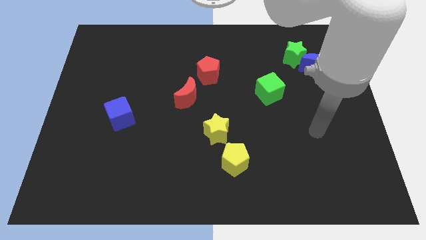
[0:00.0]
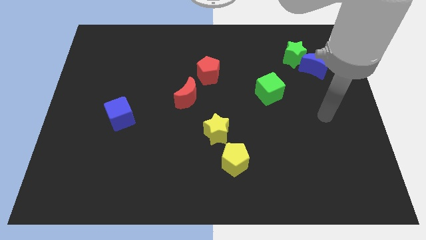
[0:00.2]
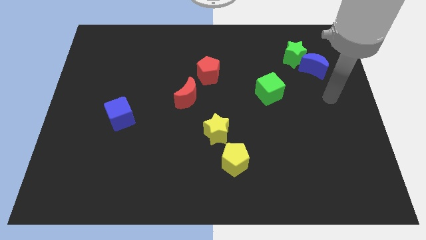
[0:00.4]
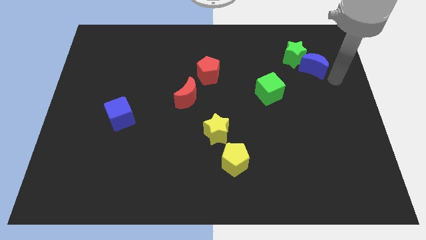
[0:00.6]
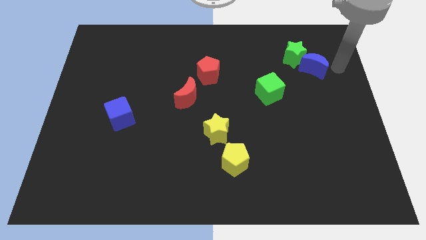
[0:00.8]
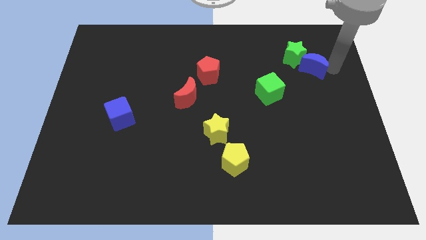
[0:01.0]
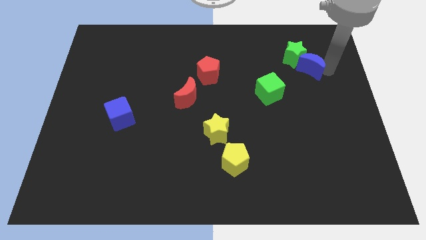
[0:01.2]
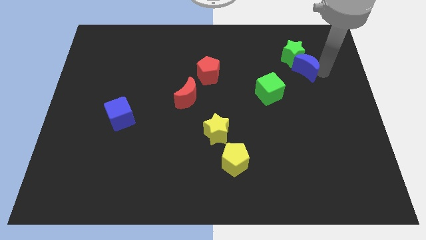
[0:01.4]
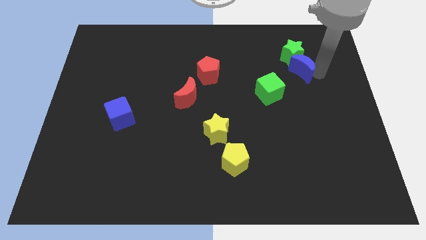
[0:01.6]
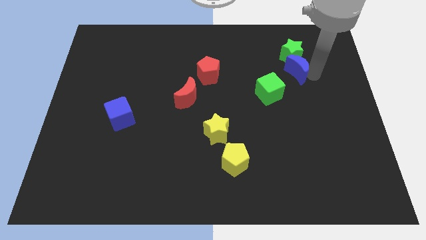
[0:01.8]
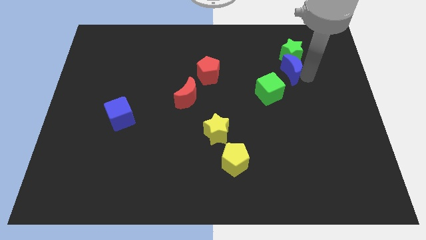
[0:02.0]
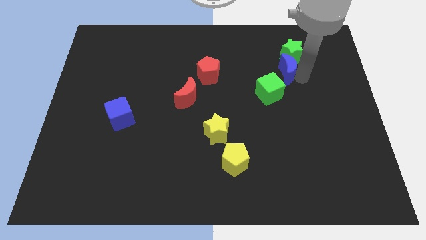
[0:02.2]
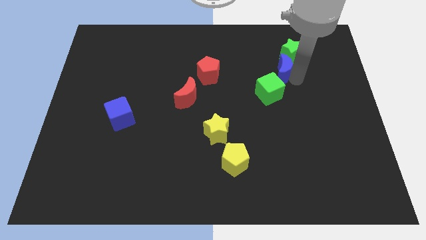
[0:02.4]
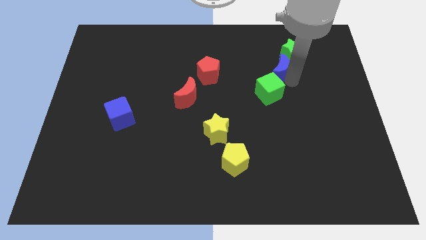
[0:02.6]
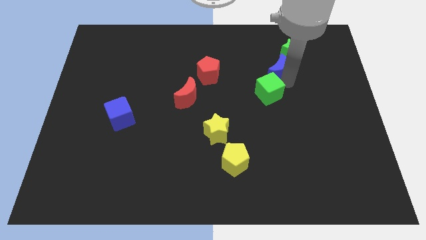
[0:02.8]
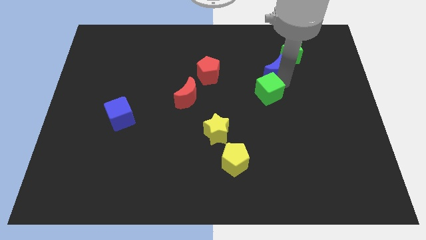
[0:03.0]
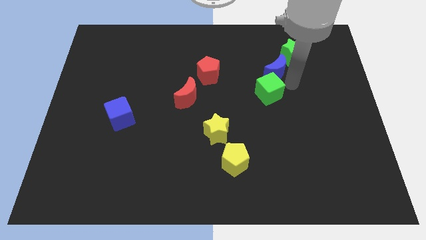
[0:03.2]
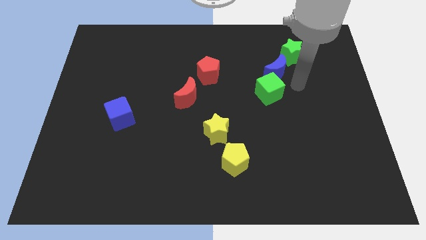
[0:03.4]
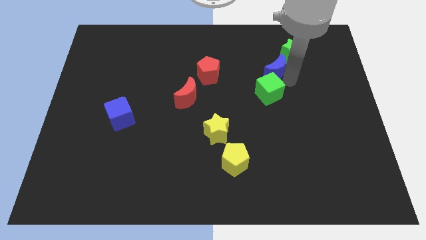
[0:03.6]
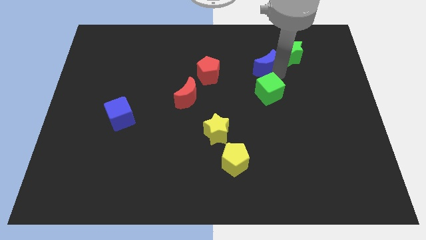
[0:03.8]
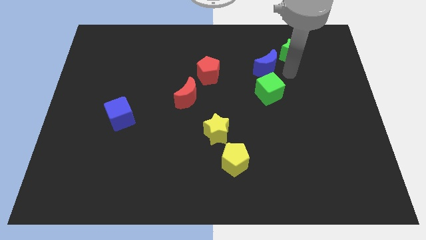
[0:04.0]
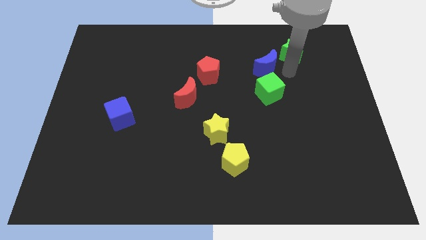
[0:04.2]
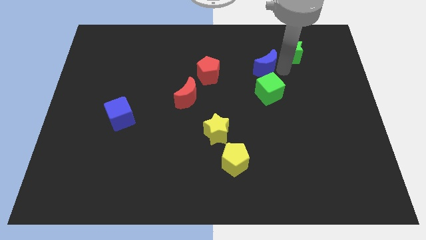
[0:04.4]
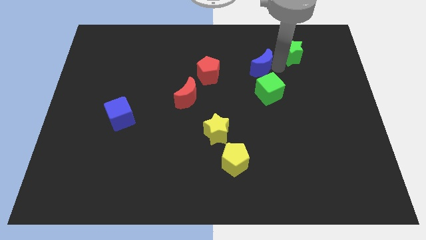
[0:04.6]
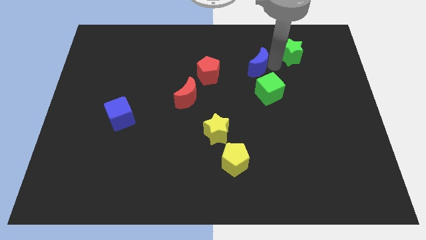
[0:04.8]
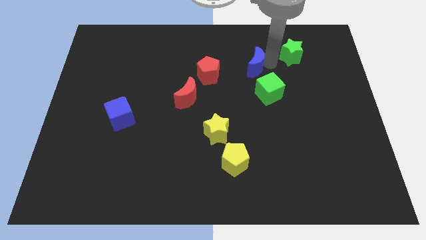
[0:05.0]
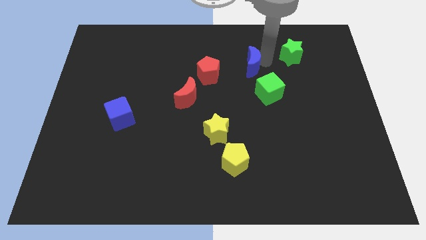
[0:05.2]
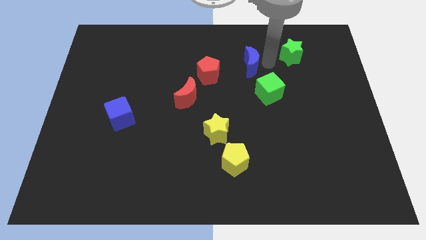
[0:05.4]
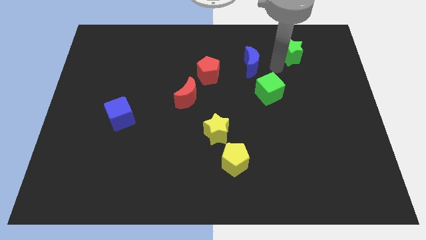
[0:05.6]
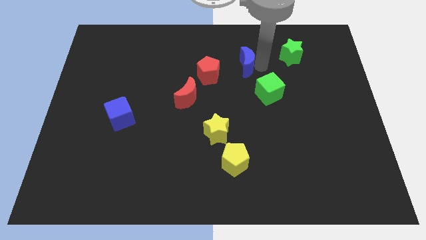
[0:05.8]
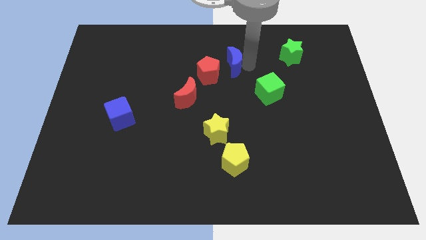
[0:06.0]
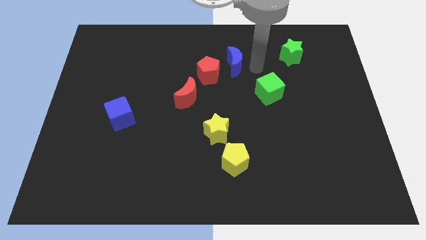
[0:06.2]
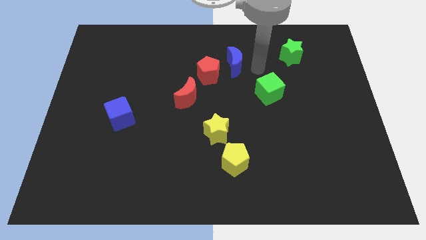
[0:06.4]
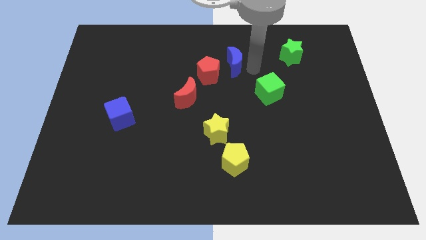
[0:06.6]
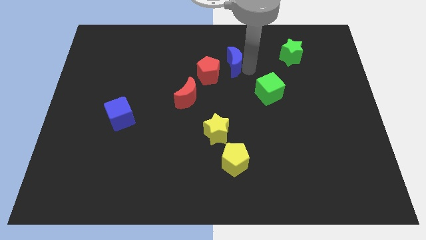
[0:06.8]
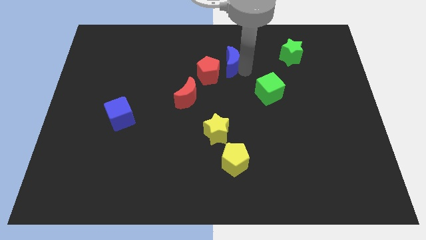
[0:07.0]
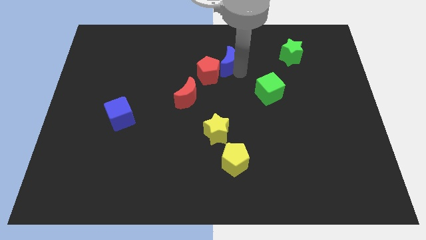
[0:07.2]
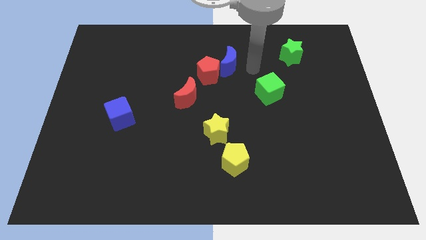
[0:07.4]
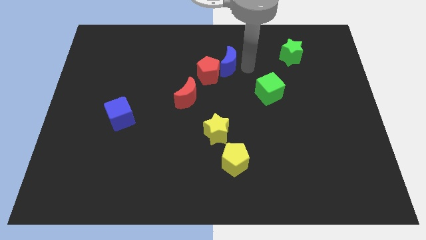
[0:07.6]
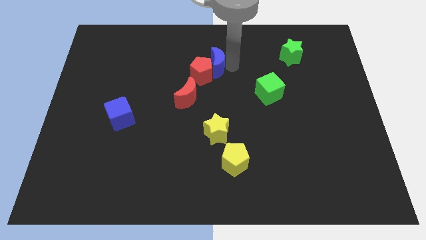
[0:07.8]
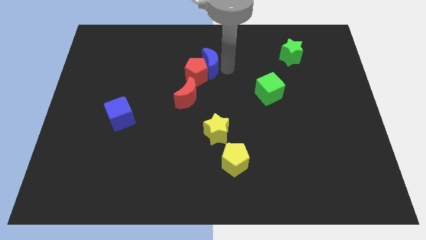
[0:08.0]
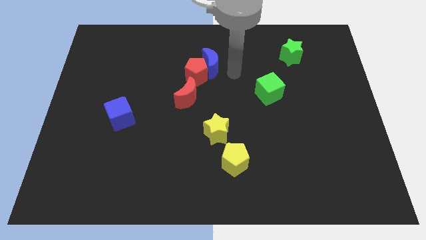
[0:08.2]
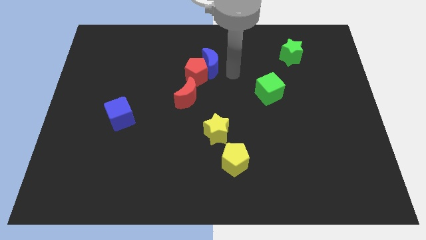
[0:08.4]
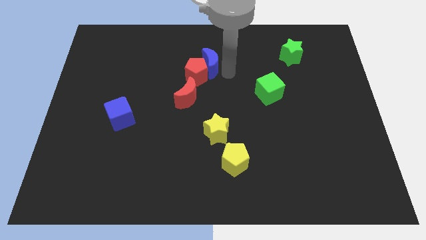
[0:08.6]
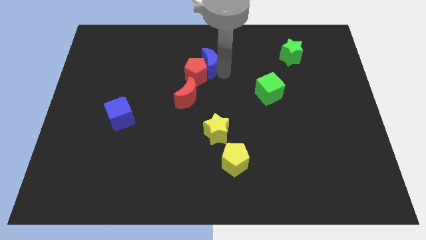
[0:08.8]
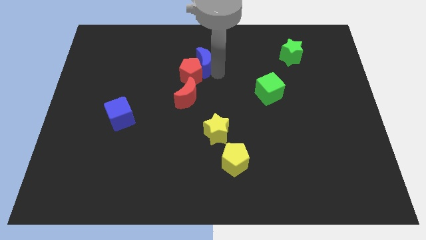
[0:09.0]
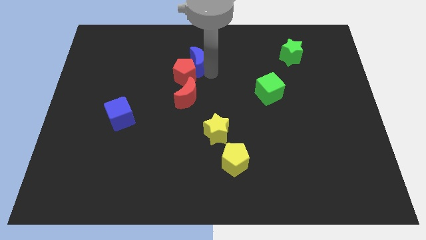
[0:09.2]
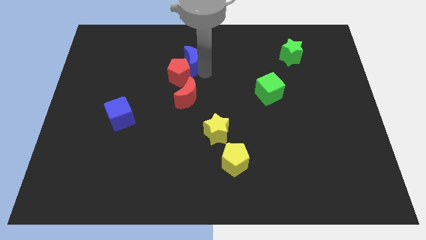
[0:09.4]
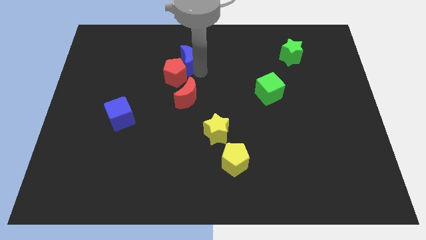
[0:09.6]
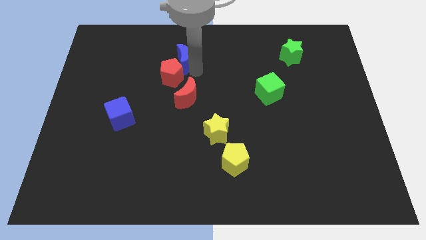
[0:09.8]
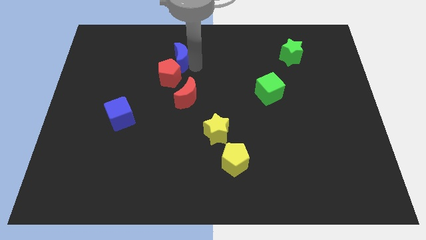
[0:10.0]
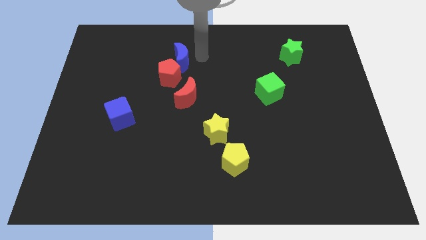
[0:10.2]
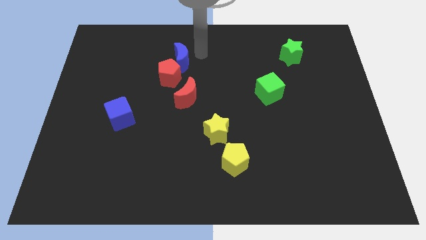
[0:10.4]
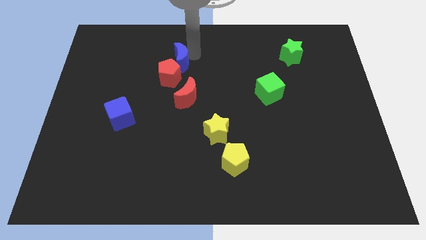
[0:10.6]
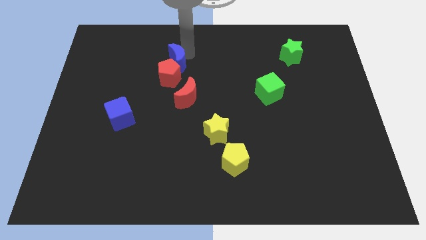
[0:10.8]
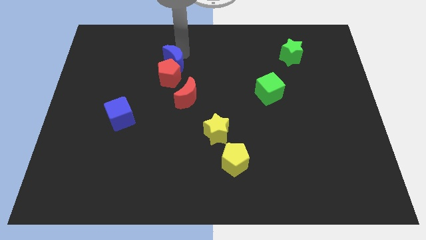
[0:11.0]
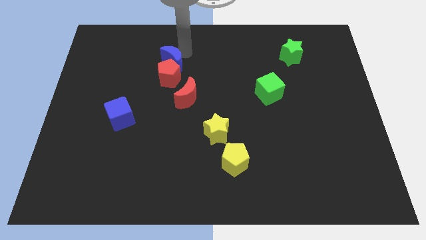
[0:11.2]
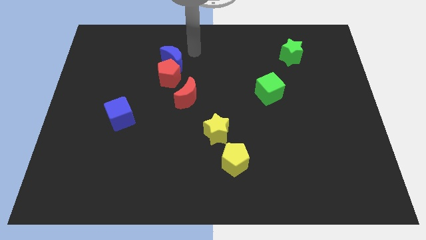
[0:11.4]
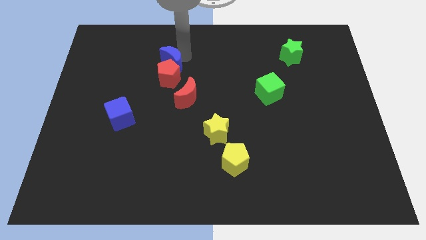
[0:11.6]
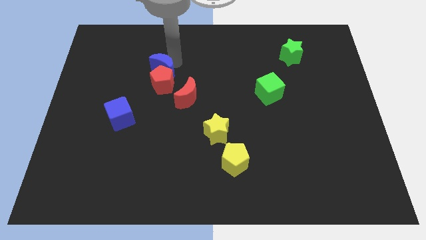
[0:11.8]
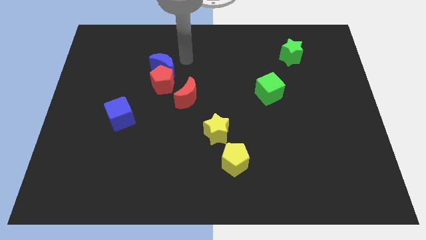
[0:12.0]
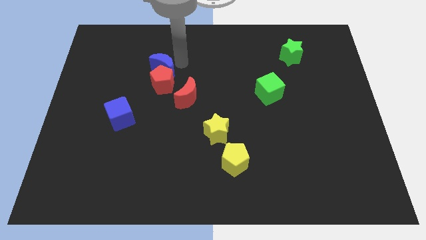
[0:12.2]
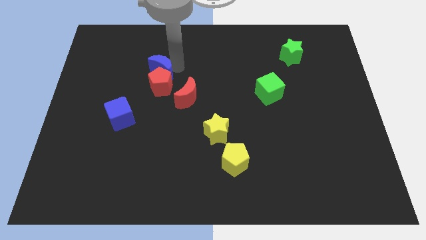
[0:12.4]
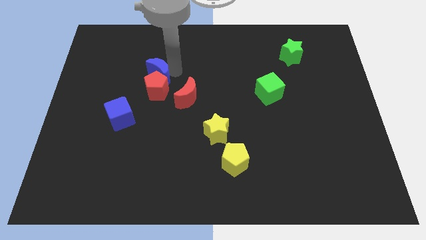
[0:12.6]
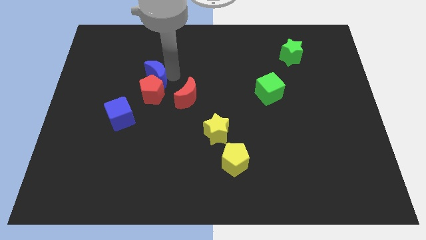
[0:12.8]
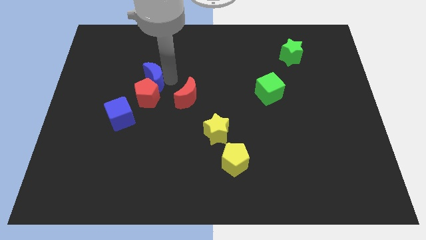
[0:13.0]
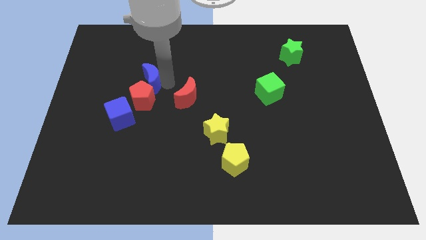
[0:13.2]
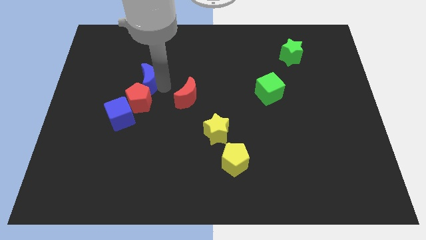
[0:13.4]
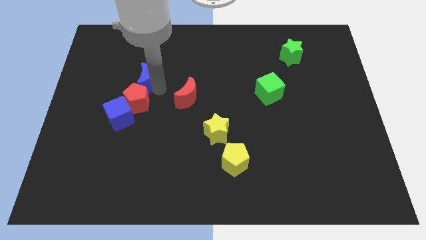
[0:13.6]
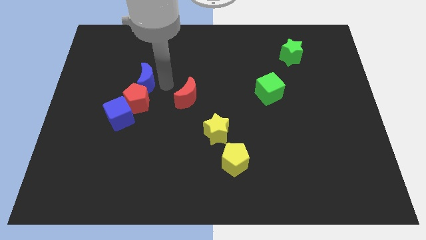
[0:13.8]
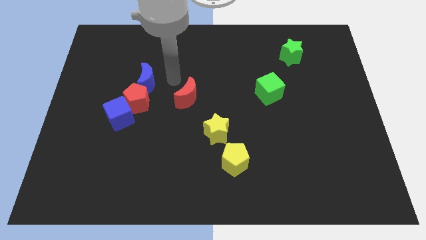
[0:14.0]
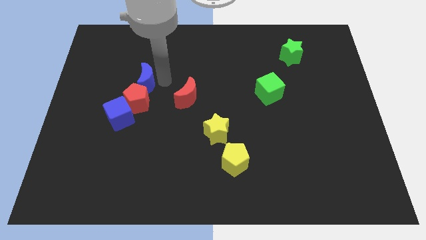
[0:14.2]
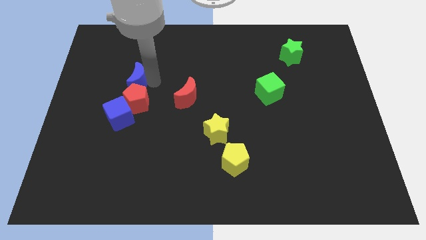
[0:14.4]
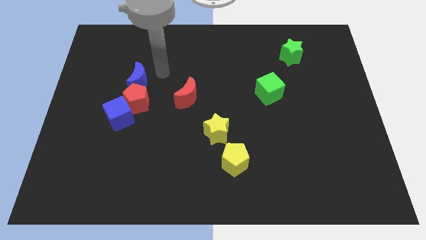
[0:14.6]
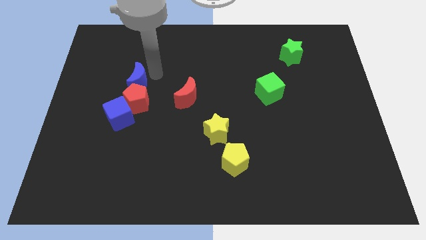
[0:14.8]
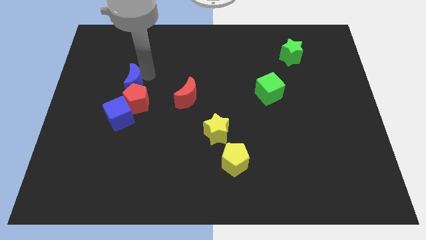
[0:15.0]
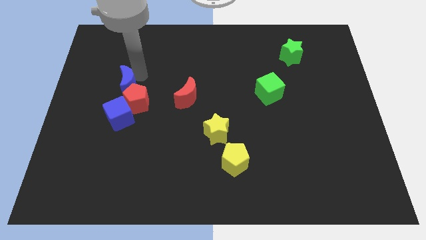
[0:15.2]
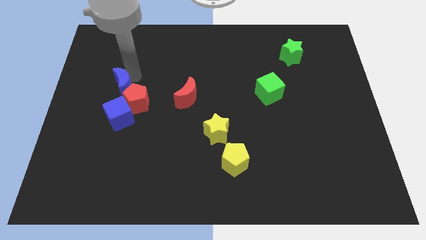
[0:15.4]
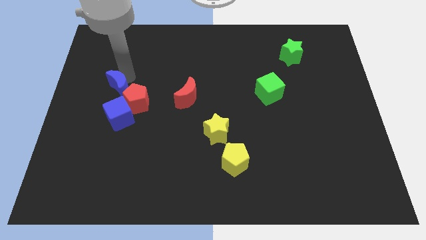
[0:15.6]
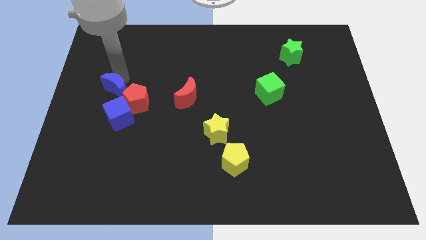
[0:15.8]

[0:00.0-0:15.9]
slide the blue moon to the top left of the blue cube
